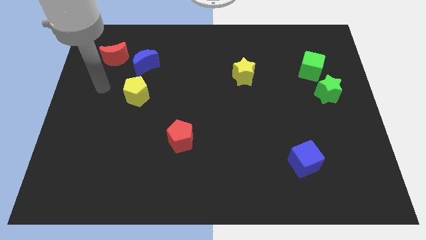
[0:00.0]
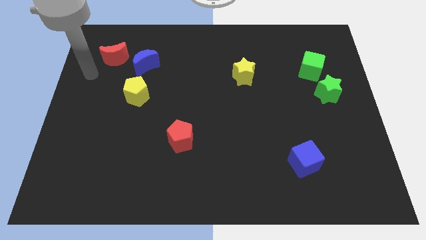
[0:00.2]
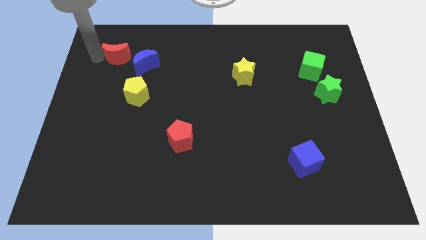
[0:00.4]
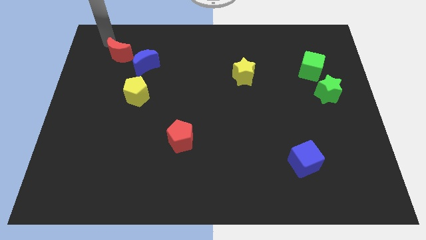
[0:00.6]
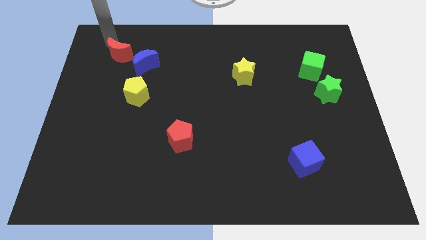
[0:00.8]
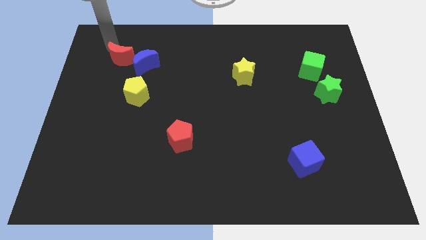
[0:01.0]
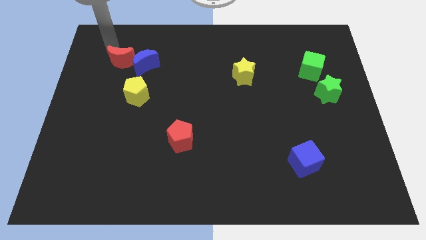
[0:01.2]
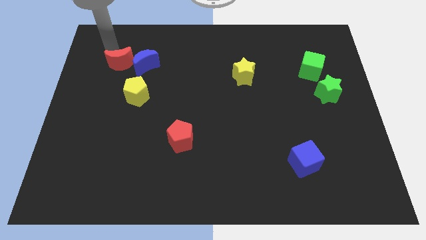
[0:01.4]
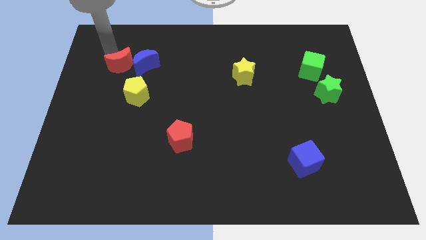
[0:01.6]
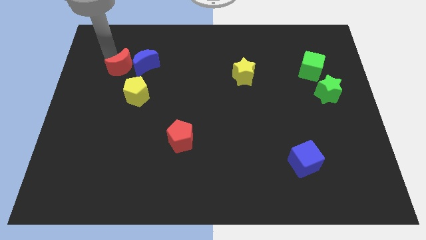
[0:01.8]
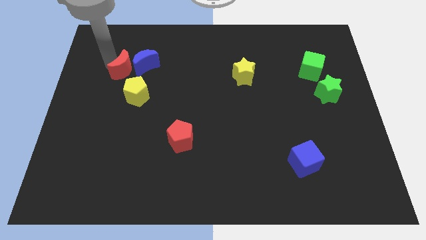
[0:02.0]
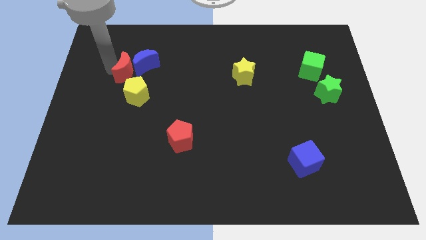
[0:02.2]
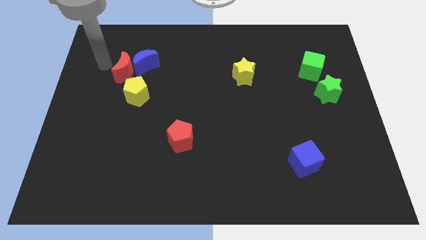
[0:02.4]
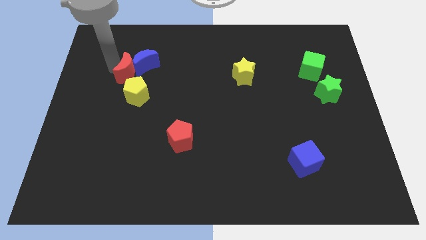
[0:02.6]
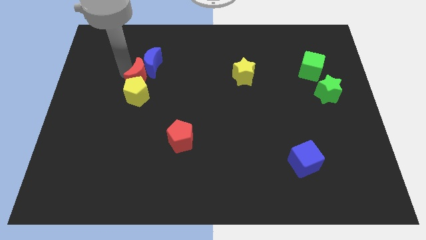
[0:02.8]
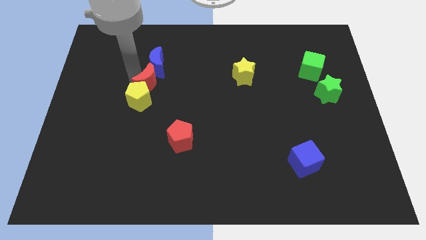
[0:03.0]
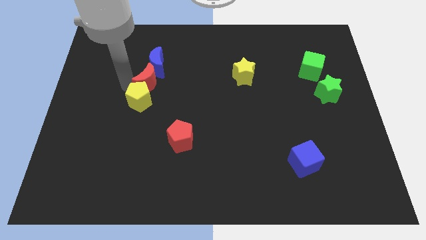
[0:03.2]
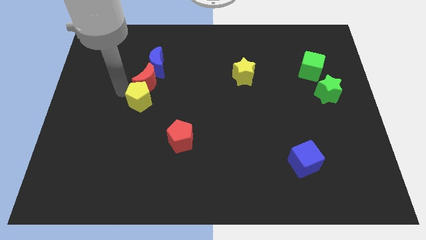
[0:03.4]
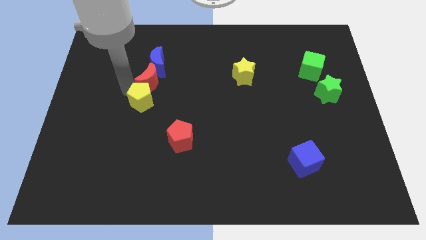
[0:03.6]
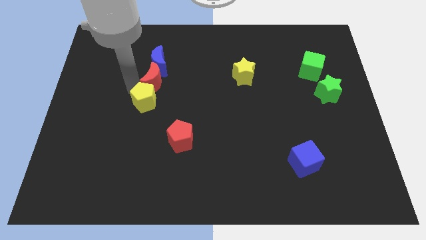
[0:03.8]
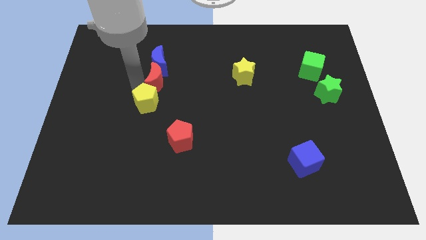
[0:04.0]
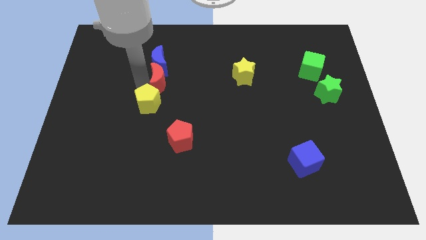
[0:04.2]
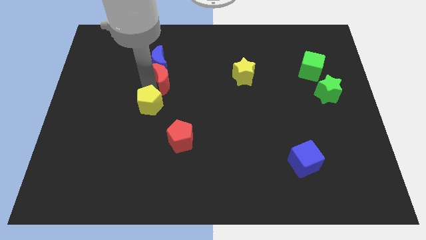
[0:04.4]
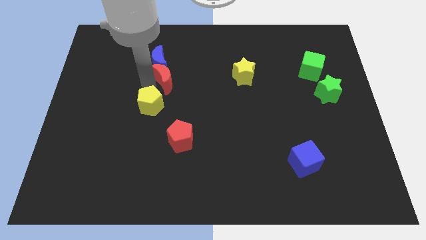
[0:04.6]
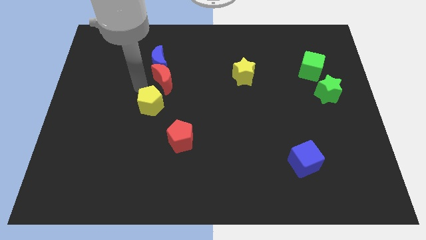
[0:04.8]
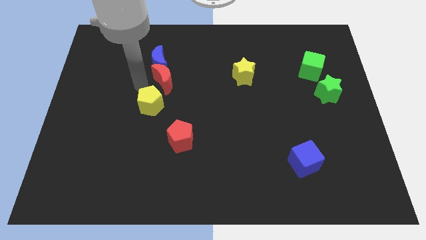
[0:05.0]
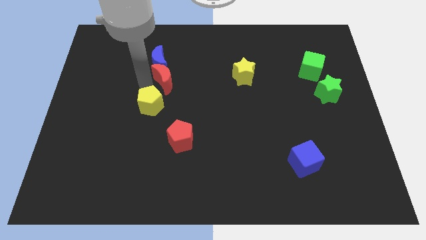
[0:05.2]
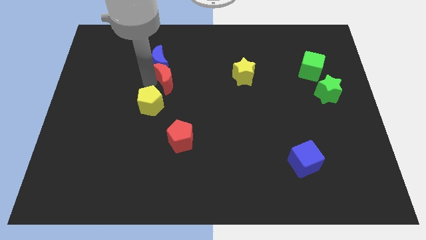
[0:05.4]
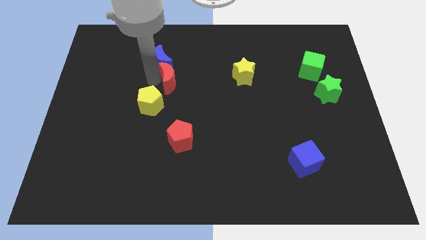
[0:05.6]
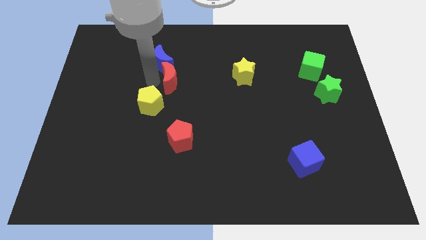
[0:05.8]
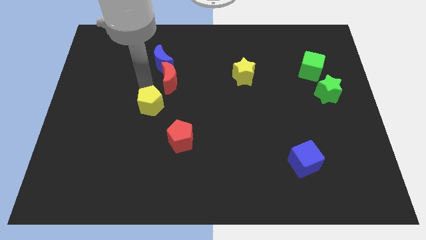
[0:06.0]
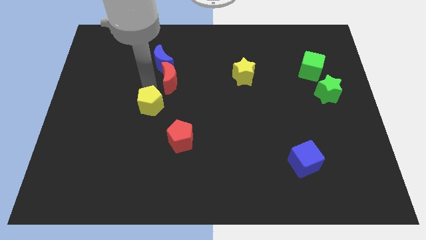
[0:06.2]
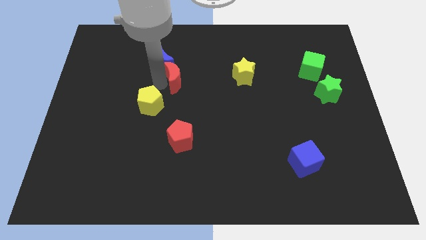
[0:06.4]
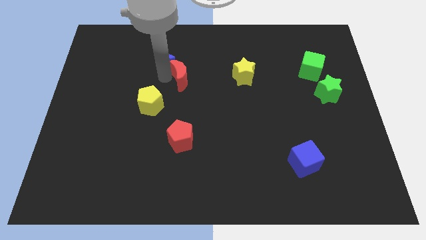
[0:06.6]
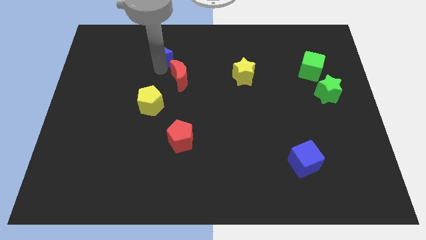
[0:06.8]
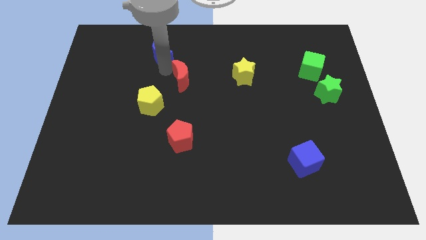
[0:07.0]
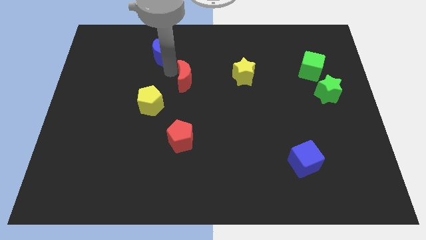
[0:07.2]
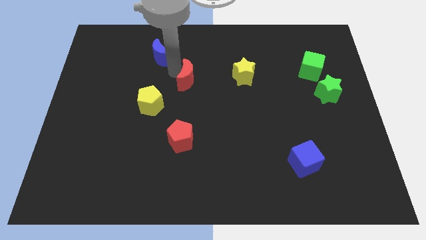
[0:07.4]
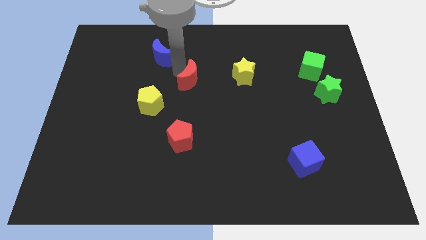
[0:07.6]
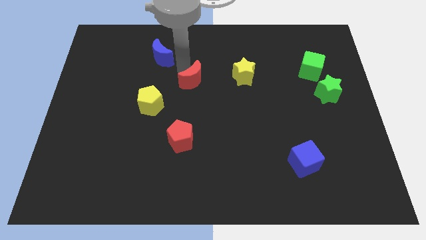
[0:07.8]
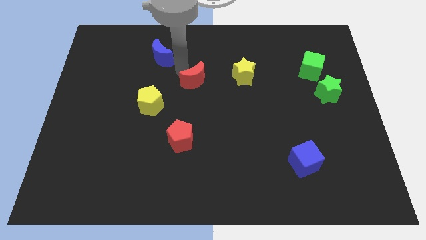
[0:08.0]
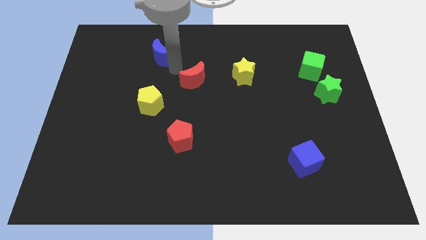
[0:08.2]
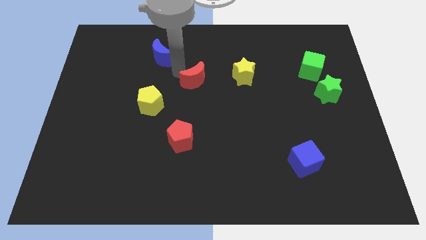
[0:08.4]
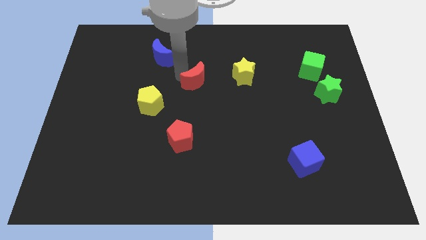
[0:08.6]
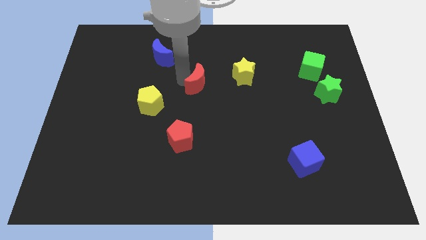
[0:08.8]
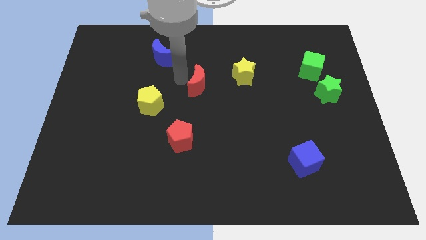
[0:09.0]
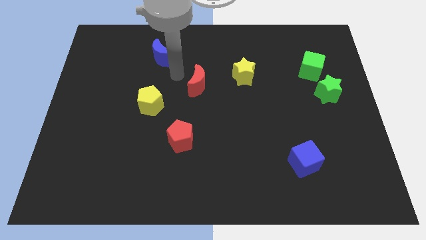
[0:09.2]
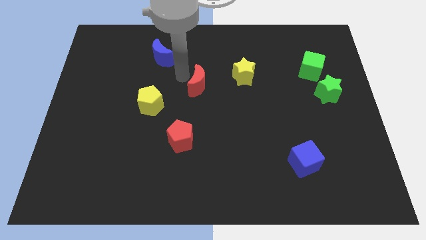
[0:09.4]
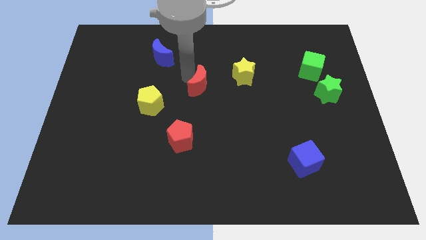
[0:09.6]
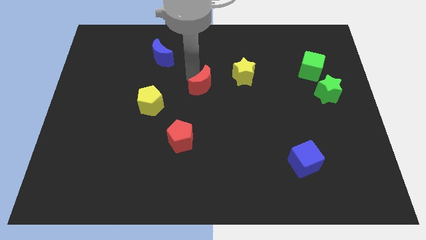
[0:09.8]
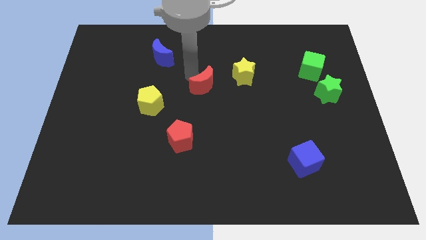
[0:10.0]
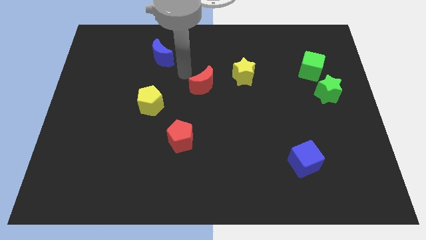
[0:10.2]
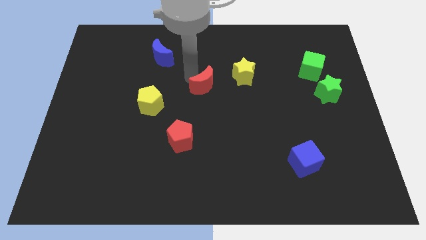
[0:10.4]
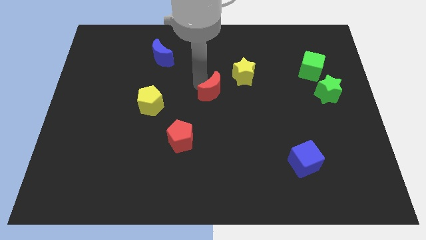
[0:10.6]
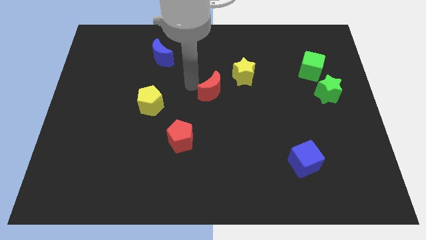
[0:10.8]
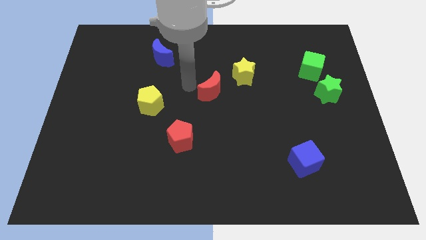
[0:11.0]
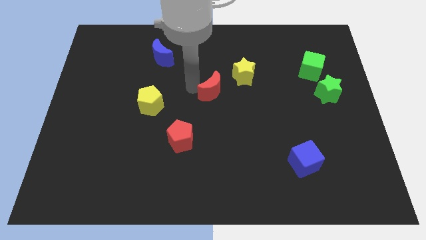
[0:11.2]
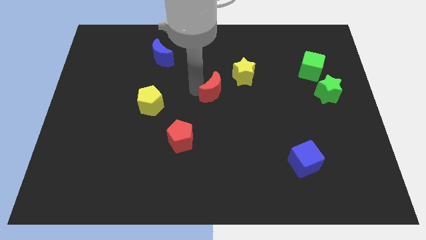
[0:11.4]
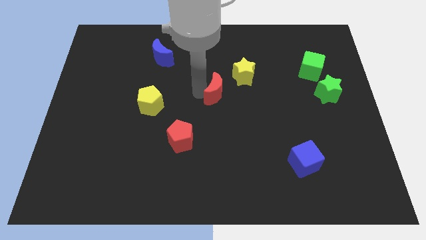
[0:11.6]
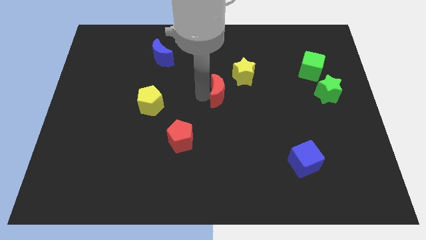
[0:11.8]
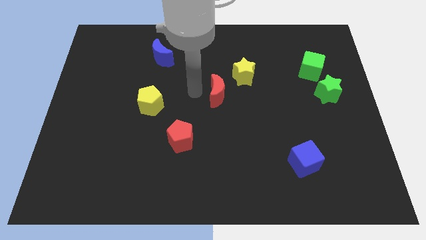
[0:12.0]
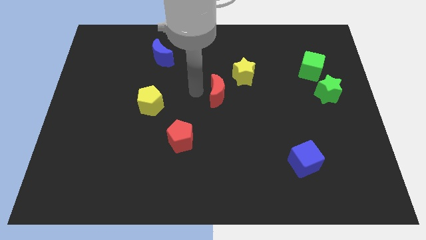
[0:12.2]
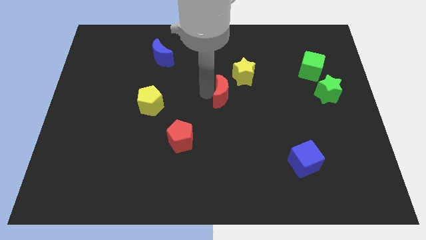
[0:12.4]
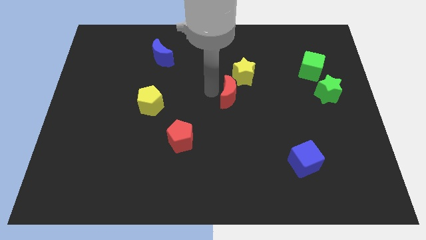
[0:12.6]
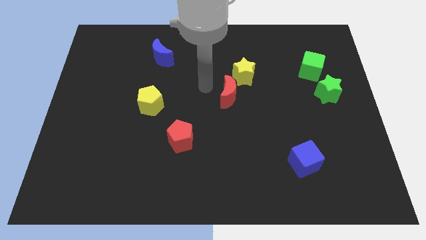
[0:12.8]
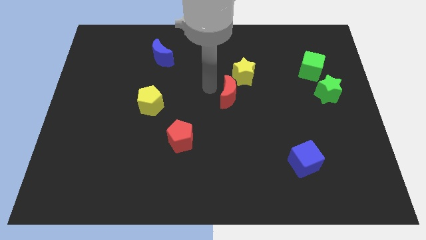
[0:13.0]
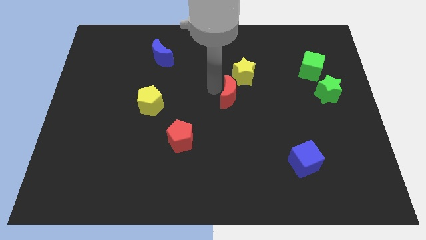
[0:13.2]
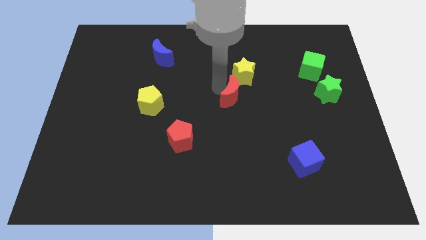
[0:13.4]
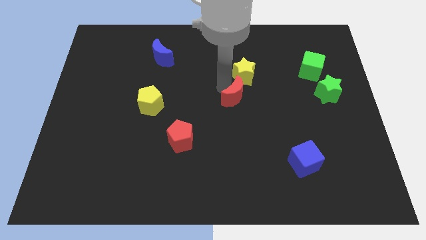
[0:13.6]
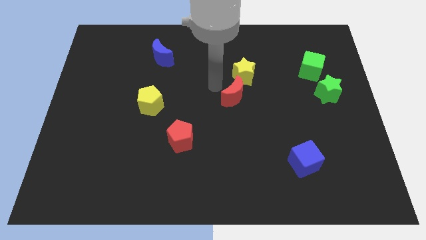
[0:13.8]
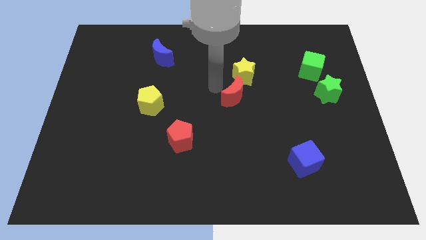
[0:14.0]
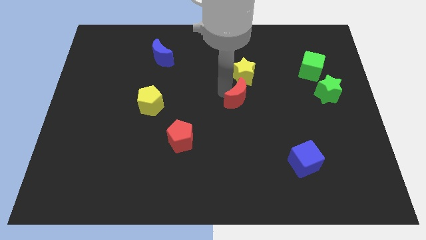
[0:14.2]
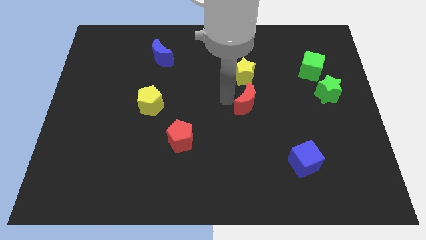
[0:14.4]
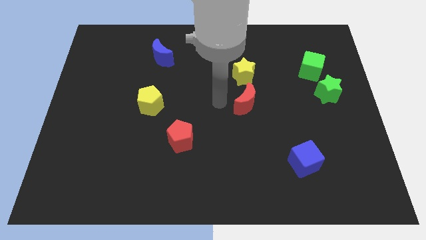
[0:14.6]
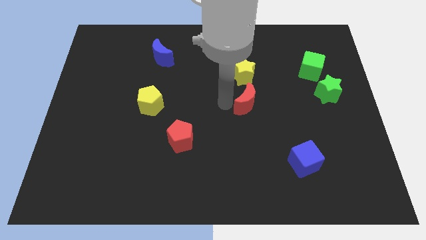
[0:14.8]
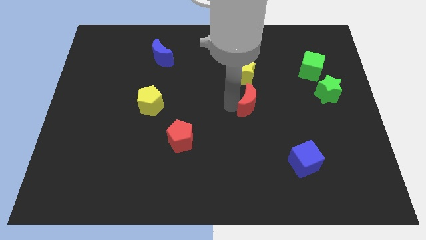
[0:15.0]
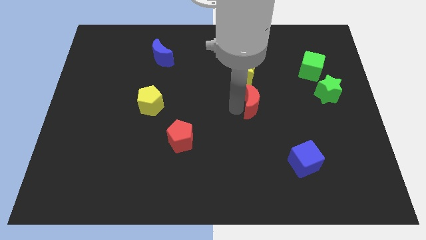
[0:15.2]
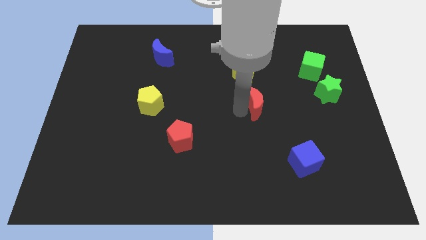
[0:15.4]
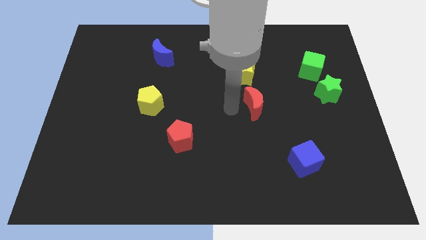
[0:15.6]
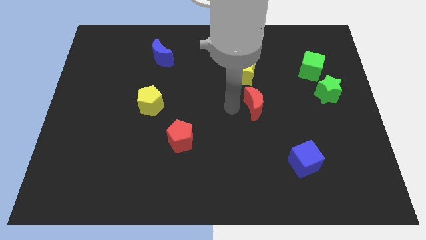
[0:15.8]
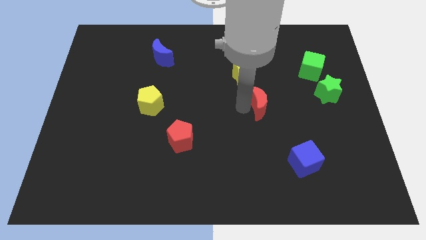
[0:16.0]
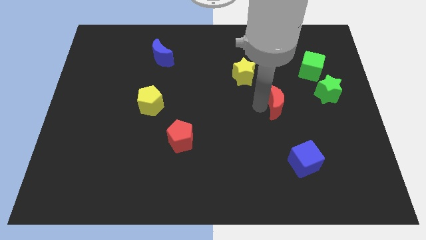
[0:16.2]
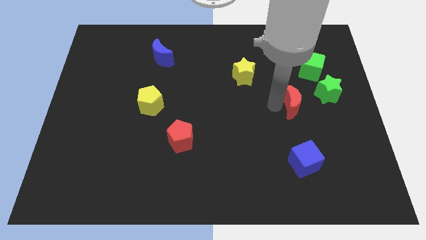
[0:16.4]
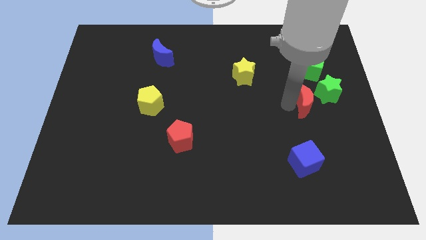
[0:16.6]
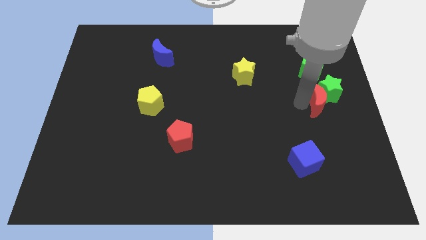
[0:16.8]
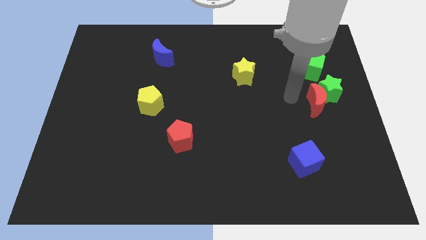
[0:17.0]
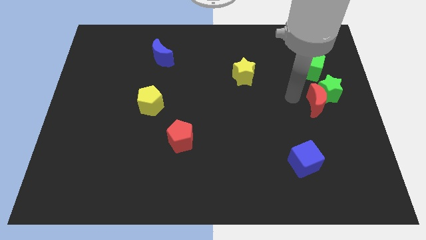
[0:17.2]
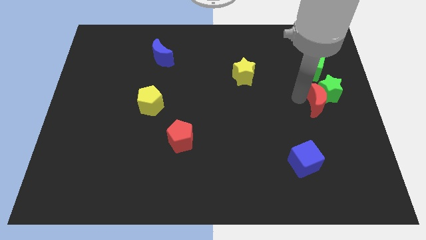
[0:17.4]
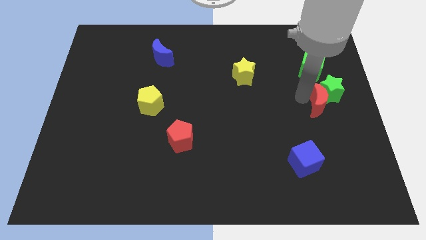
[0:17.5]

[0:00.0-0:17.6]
push the red moon to the right side
